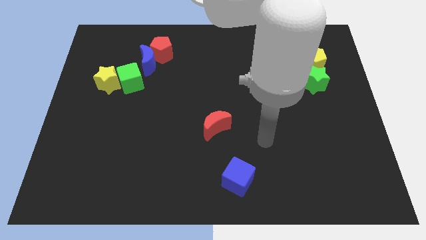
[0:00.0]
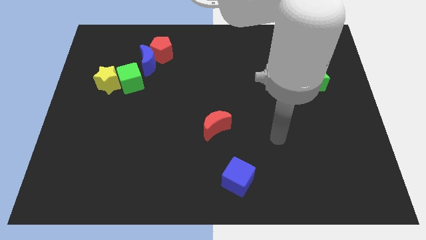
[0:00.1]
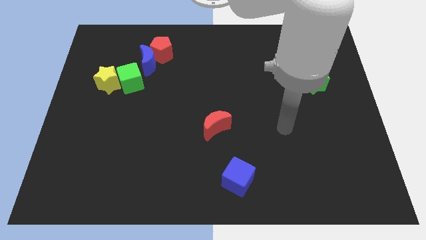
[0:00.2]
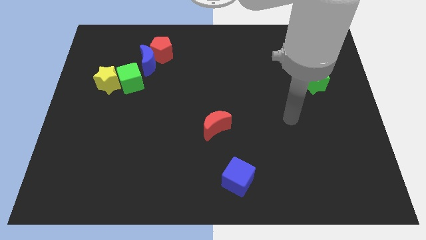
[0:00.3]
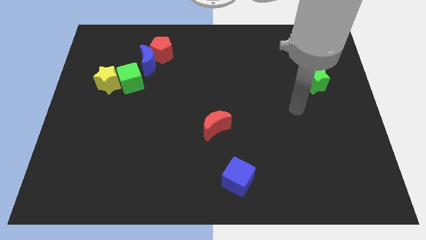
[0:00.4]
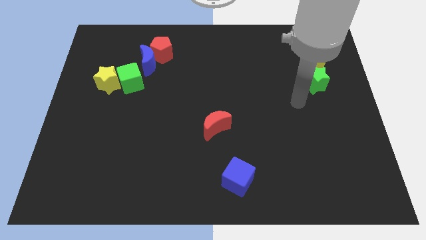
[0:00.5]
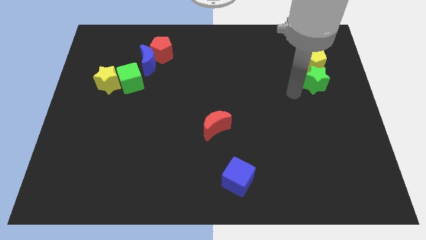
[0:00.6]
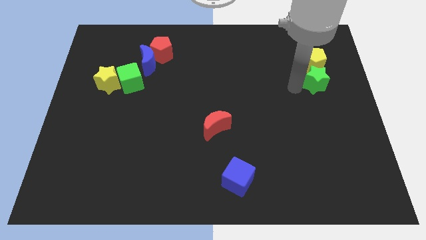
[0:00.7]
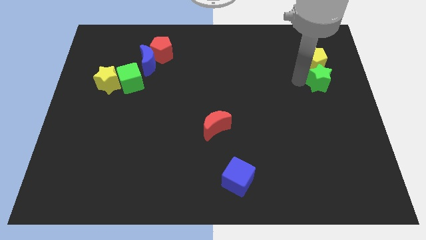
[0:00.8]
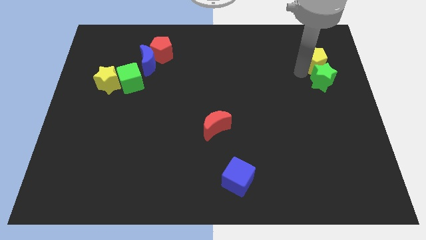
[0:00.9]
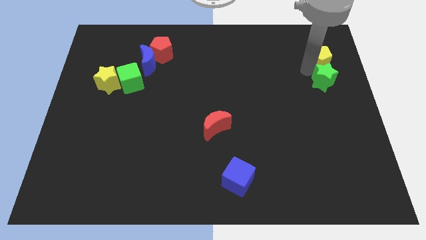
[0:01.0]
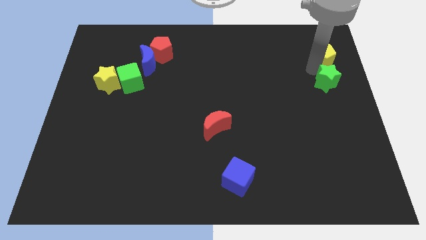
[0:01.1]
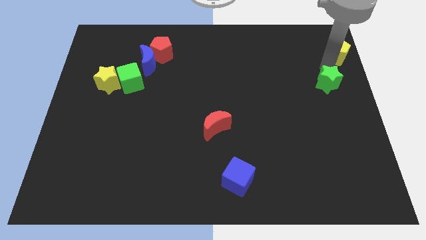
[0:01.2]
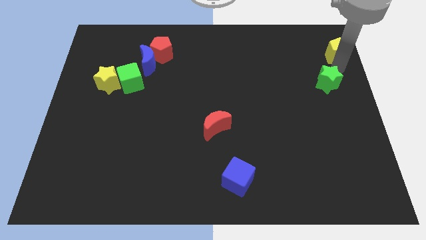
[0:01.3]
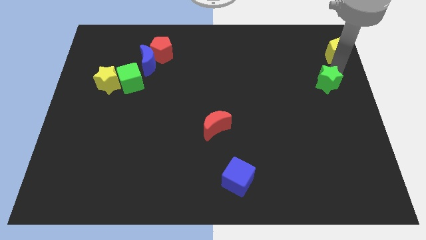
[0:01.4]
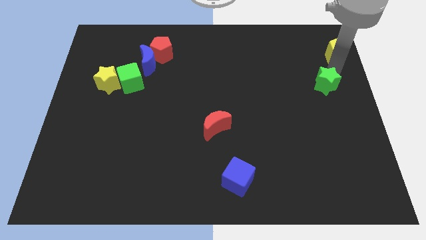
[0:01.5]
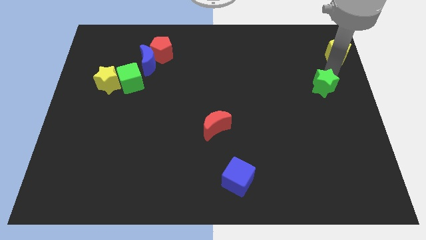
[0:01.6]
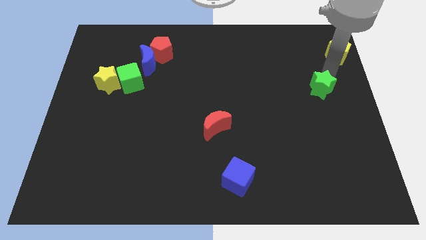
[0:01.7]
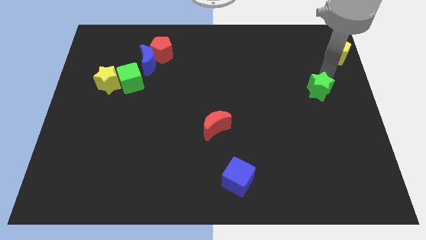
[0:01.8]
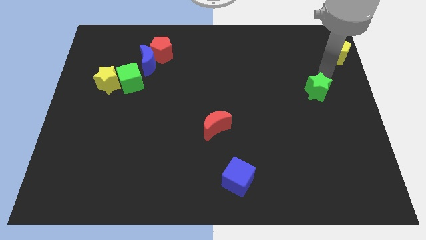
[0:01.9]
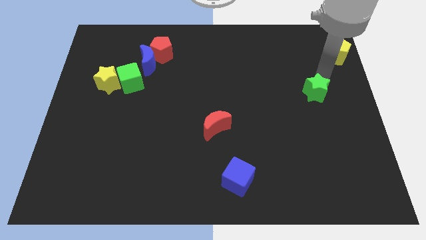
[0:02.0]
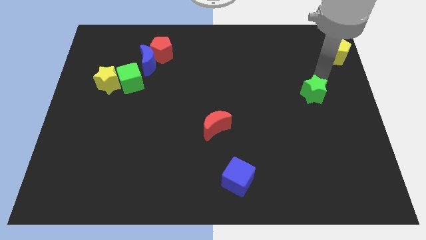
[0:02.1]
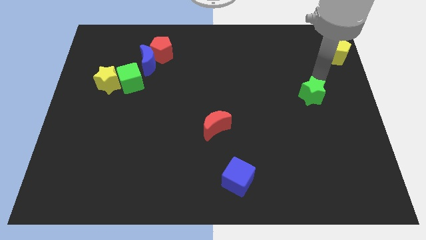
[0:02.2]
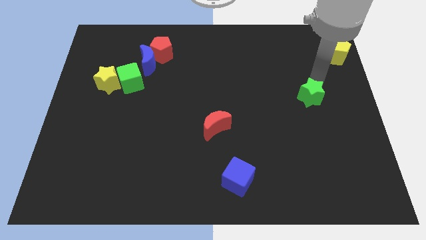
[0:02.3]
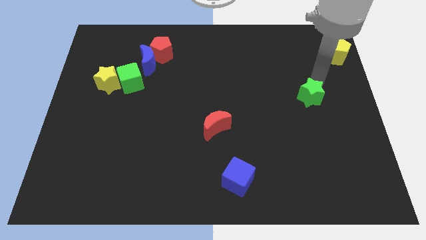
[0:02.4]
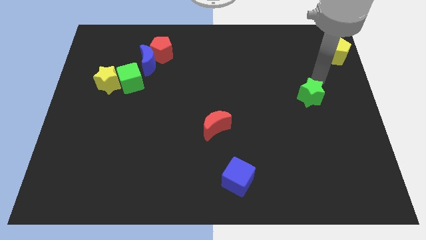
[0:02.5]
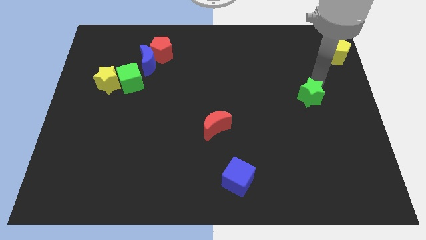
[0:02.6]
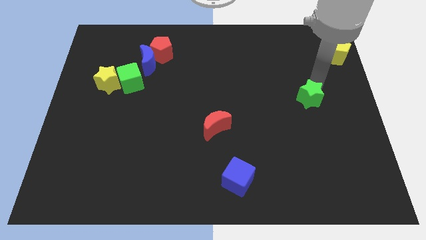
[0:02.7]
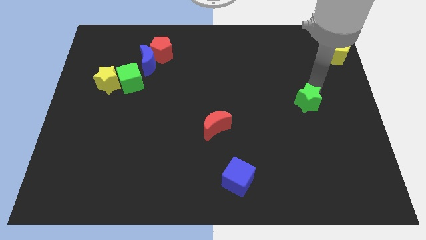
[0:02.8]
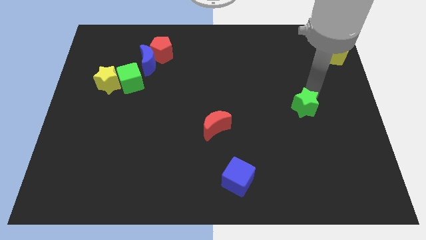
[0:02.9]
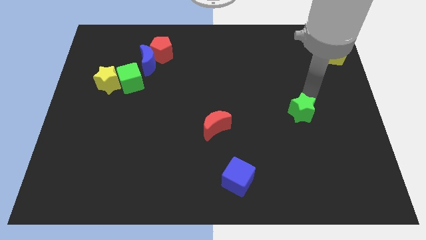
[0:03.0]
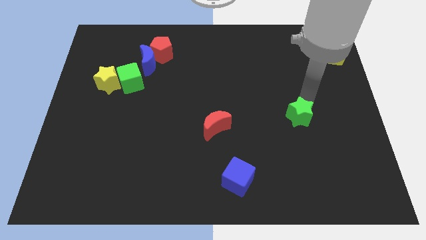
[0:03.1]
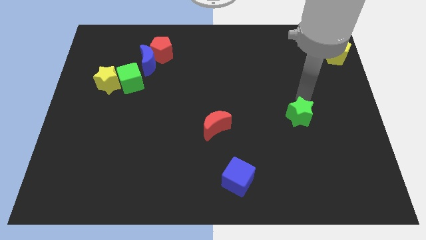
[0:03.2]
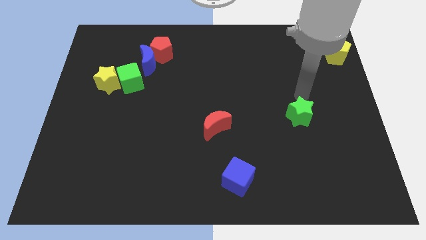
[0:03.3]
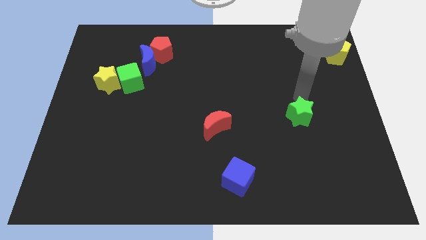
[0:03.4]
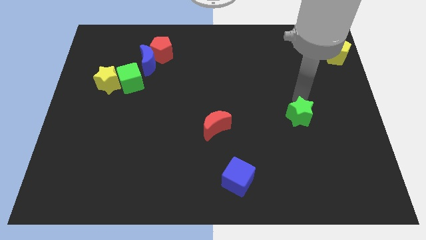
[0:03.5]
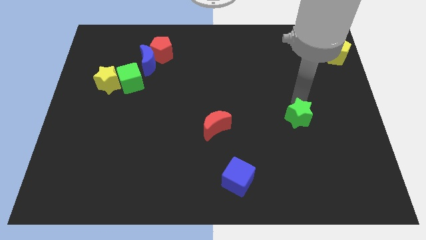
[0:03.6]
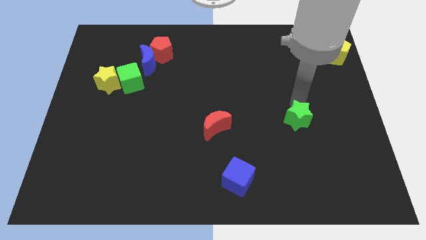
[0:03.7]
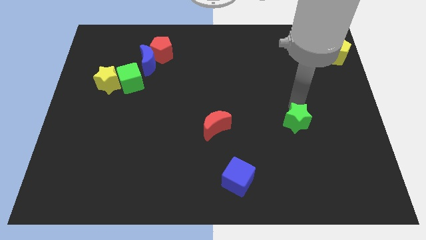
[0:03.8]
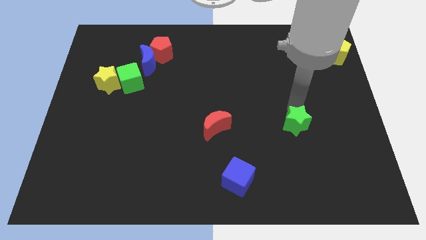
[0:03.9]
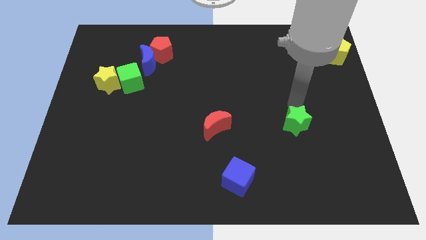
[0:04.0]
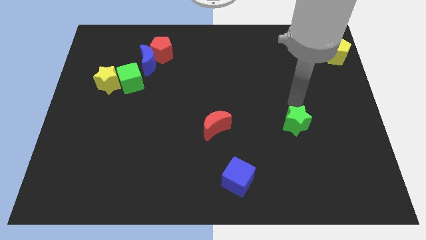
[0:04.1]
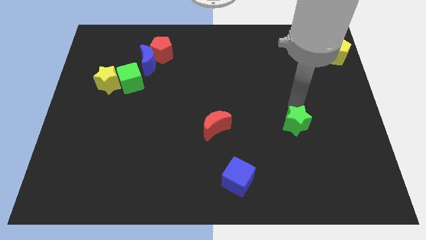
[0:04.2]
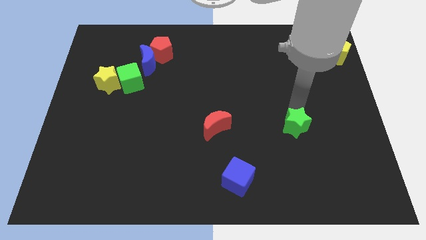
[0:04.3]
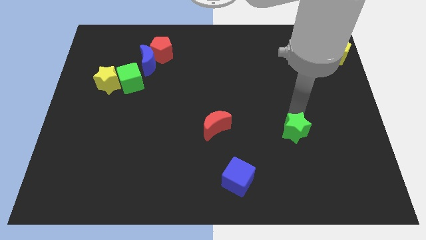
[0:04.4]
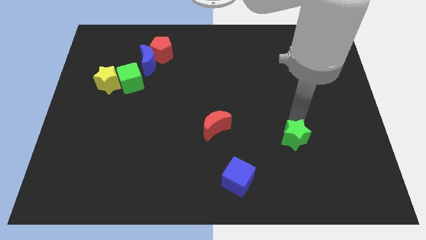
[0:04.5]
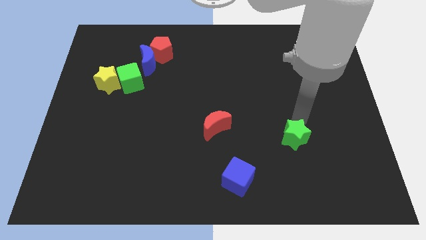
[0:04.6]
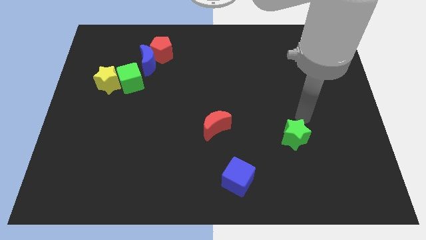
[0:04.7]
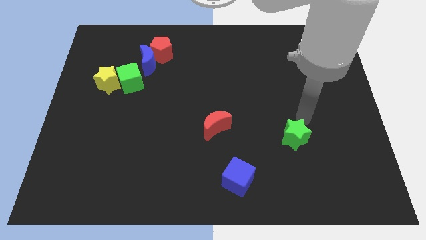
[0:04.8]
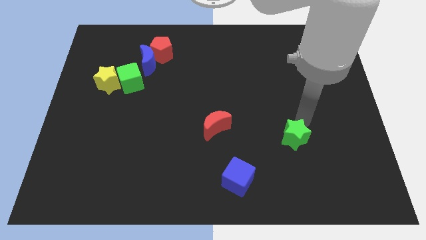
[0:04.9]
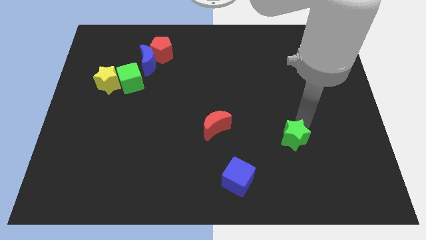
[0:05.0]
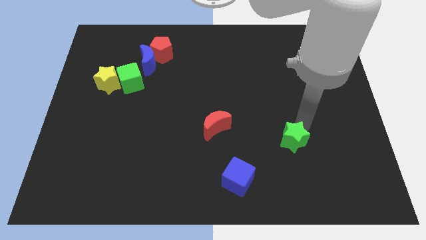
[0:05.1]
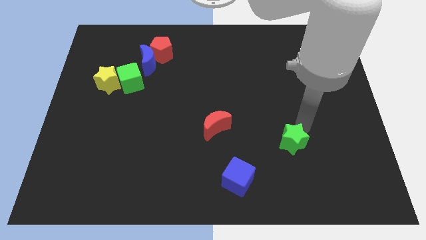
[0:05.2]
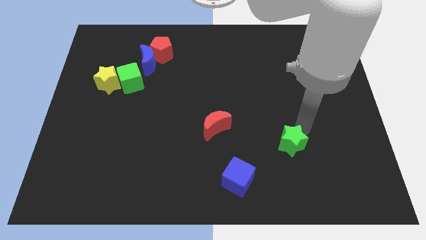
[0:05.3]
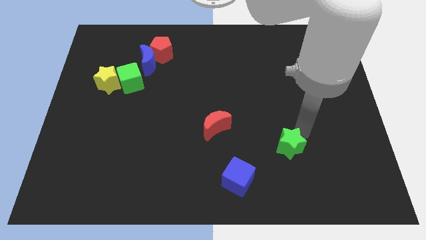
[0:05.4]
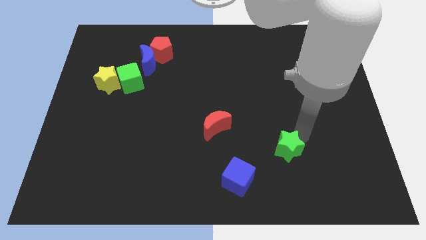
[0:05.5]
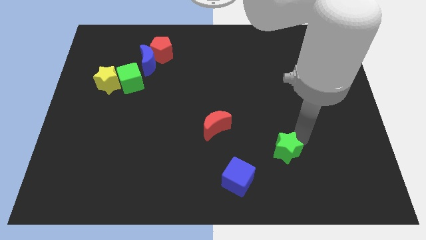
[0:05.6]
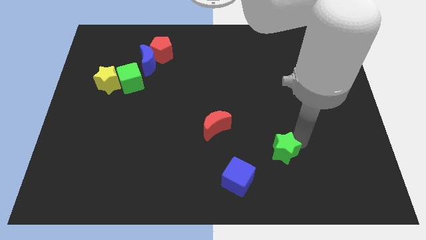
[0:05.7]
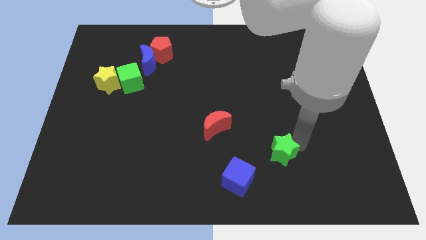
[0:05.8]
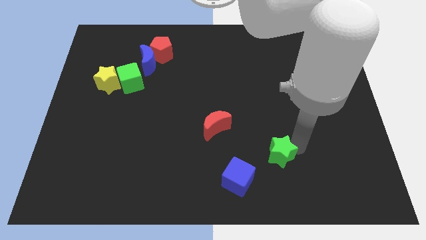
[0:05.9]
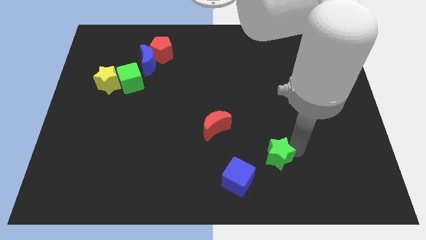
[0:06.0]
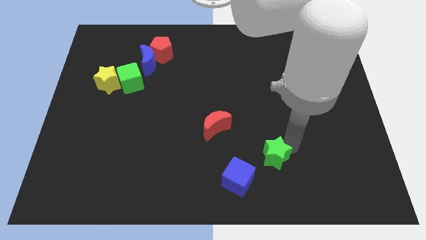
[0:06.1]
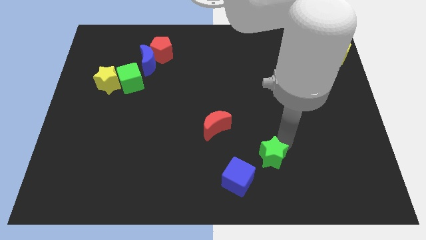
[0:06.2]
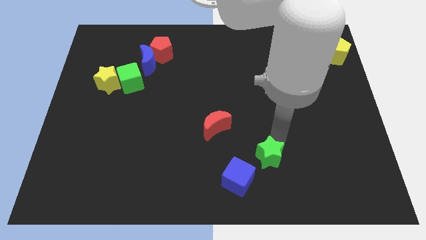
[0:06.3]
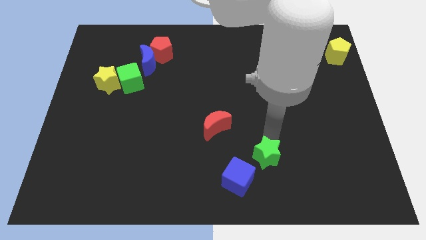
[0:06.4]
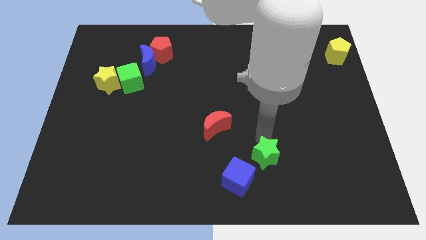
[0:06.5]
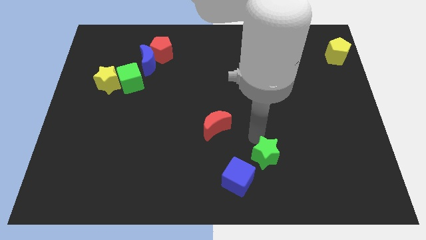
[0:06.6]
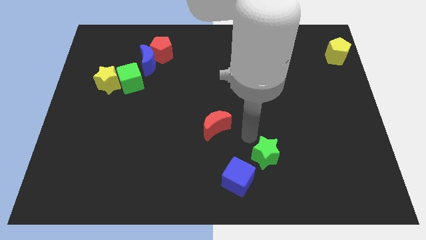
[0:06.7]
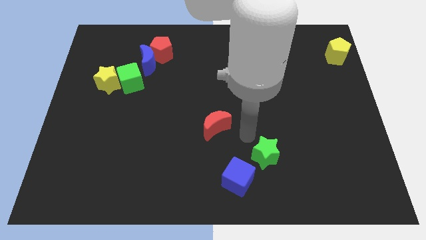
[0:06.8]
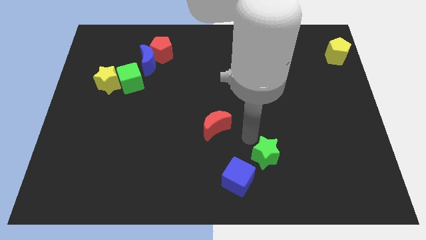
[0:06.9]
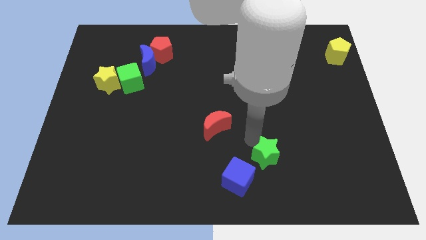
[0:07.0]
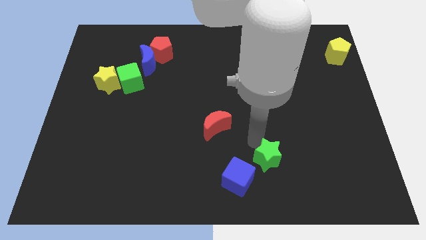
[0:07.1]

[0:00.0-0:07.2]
put the green star to the right of the blue cube
